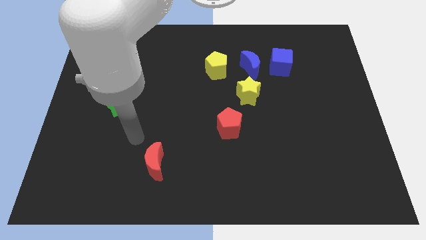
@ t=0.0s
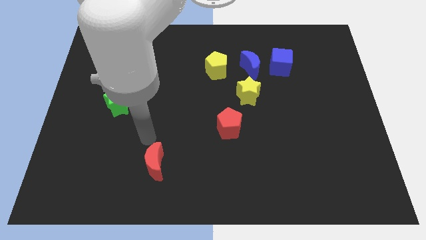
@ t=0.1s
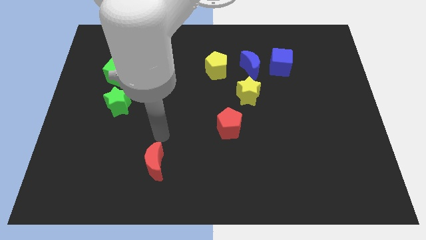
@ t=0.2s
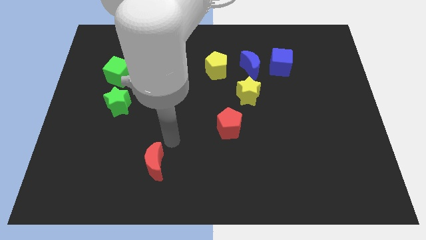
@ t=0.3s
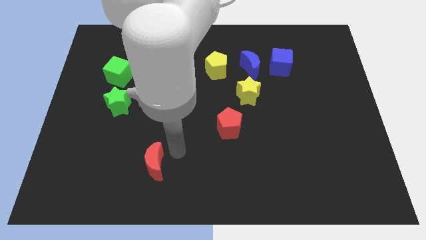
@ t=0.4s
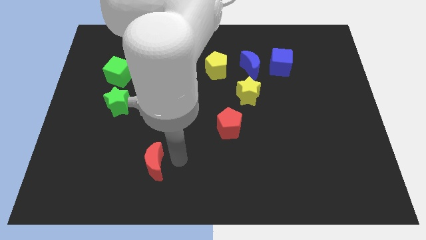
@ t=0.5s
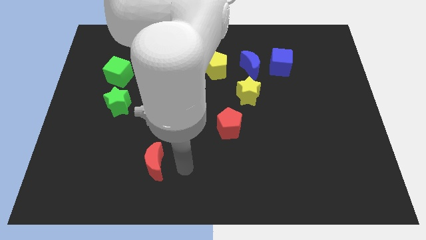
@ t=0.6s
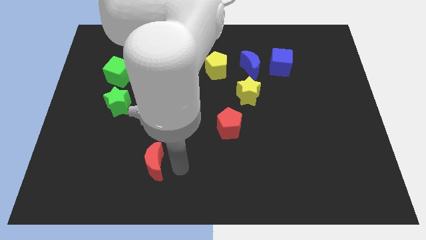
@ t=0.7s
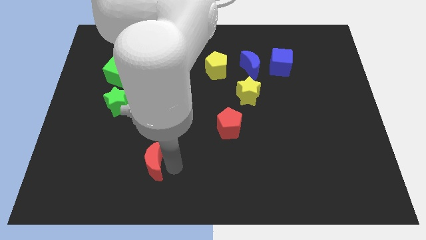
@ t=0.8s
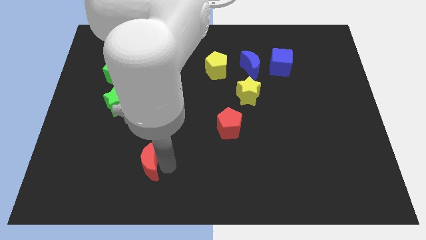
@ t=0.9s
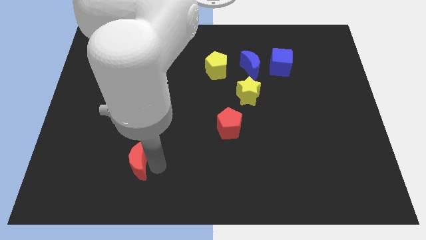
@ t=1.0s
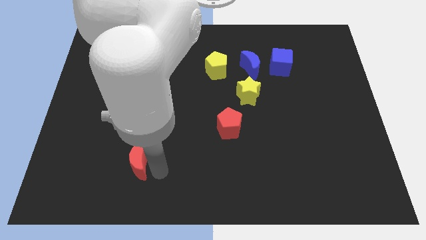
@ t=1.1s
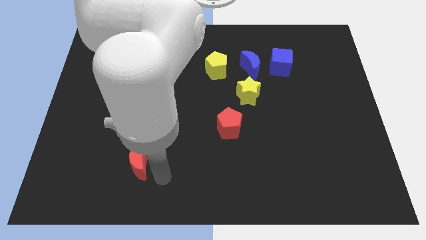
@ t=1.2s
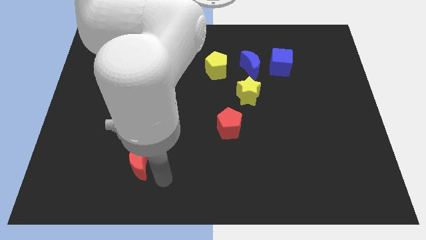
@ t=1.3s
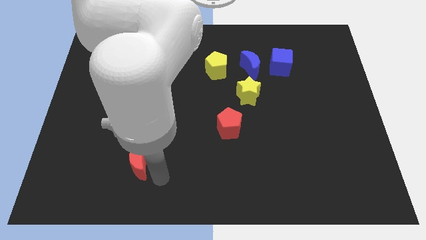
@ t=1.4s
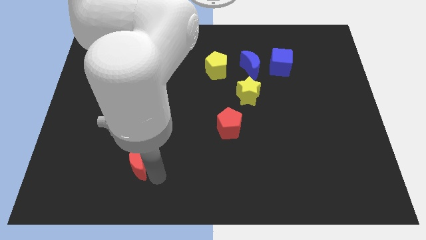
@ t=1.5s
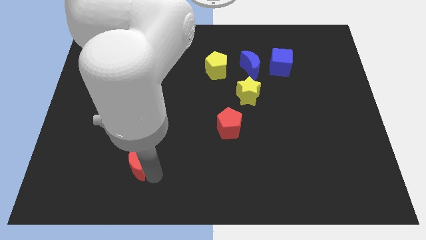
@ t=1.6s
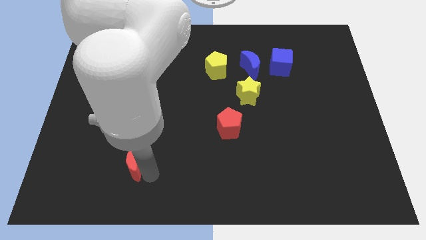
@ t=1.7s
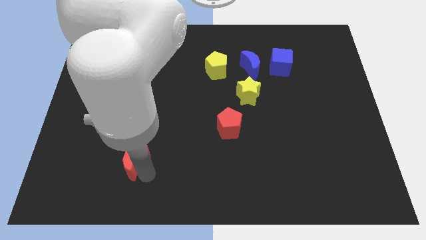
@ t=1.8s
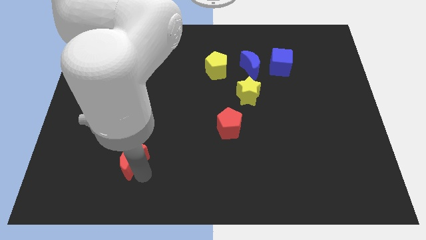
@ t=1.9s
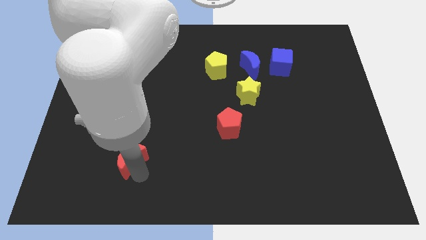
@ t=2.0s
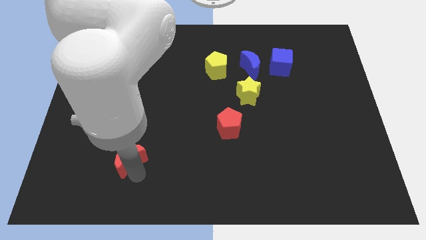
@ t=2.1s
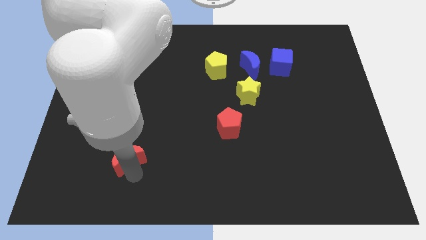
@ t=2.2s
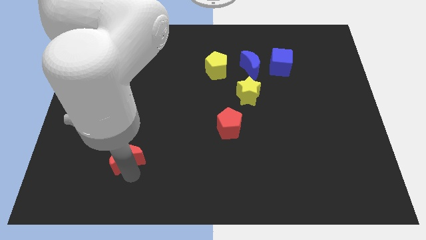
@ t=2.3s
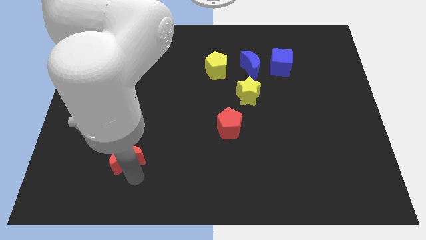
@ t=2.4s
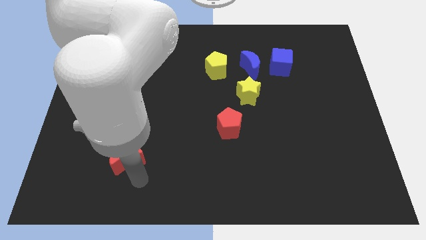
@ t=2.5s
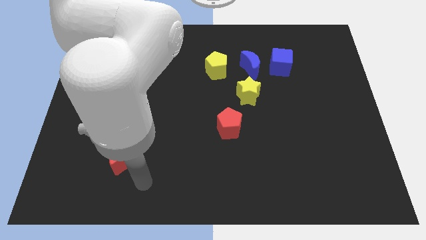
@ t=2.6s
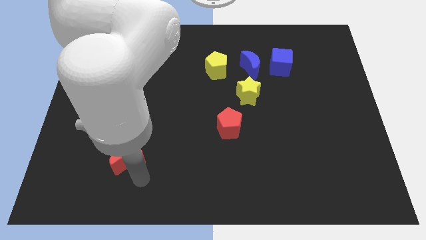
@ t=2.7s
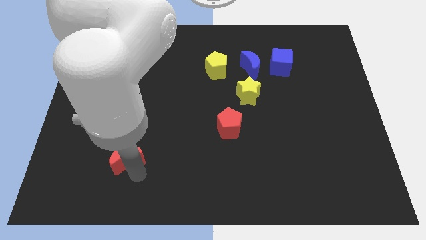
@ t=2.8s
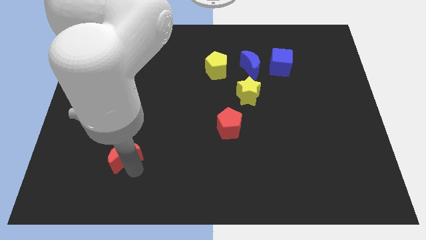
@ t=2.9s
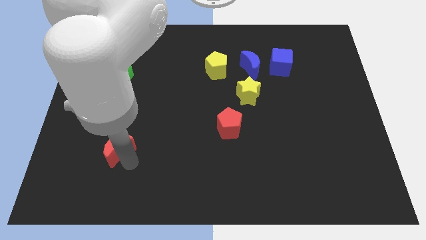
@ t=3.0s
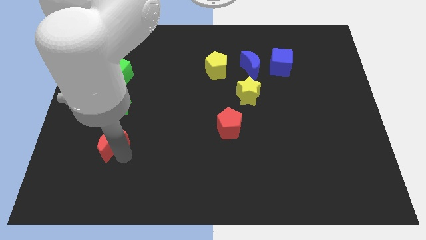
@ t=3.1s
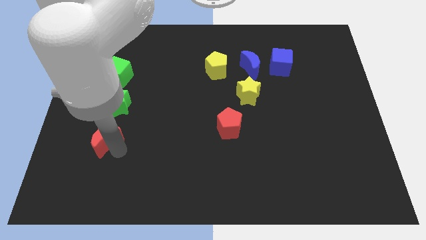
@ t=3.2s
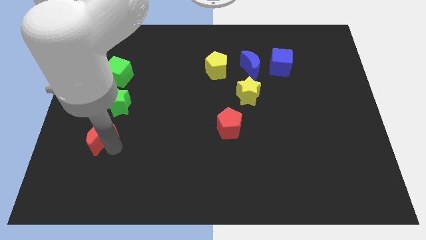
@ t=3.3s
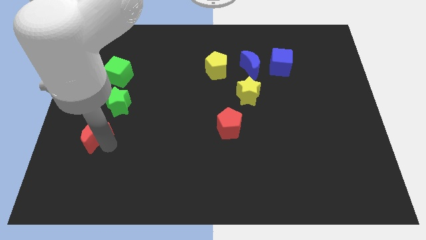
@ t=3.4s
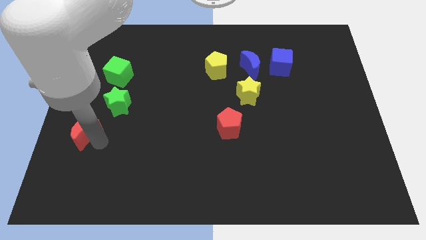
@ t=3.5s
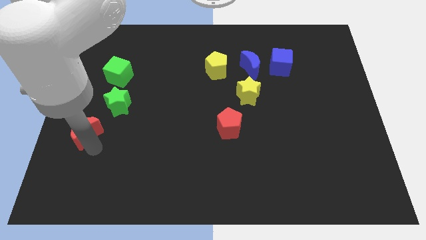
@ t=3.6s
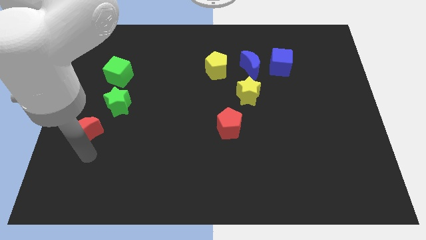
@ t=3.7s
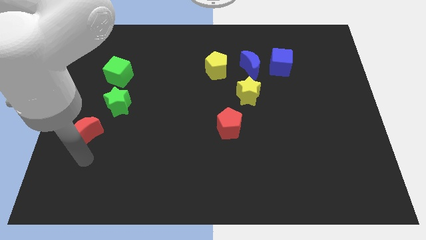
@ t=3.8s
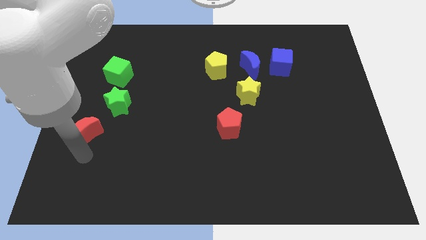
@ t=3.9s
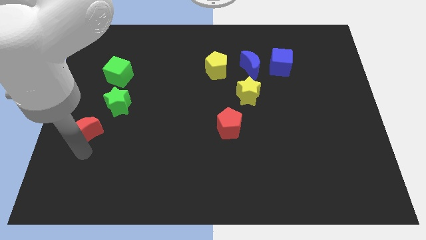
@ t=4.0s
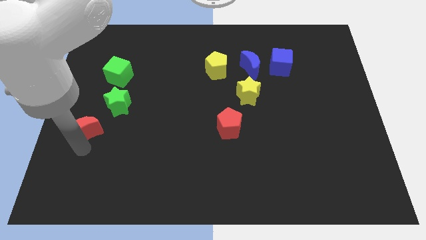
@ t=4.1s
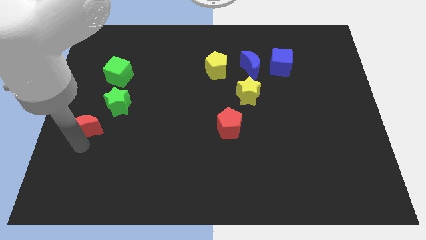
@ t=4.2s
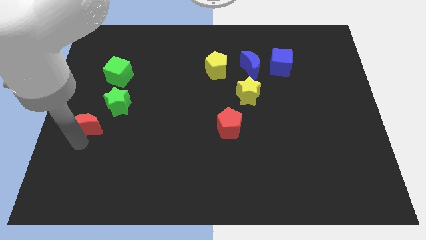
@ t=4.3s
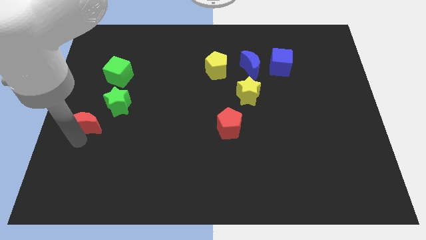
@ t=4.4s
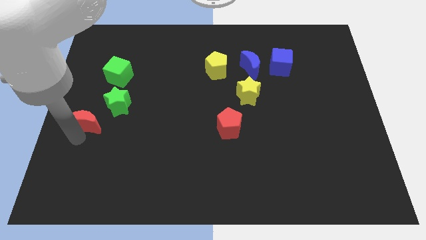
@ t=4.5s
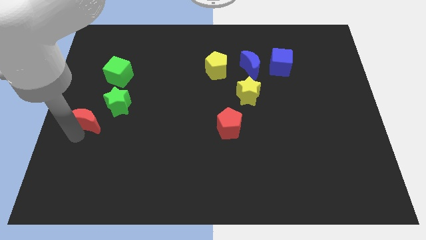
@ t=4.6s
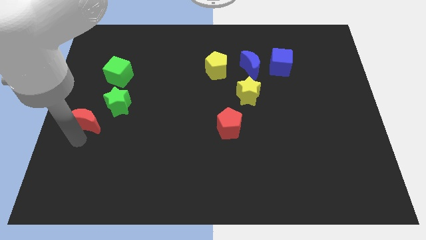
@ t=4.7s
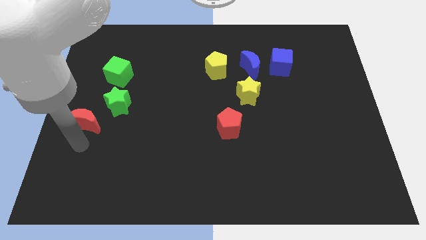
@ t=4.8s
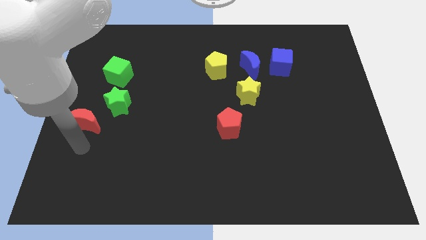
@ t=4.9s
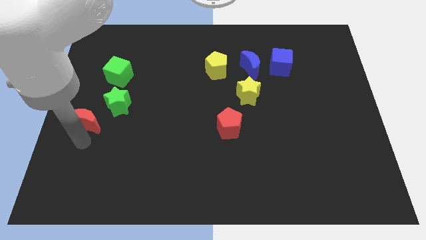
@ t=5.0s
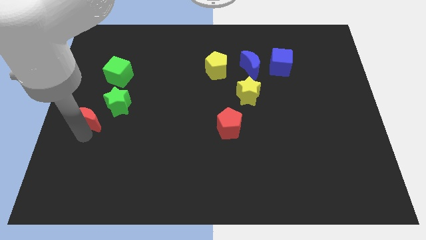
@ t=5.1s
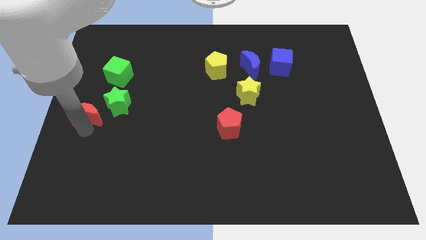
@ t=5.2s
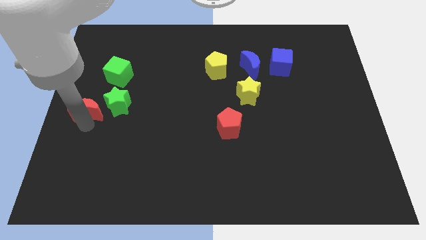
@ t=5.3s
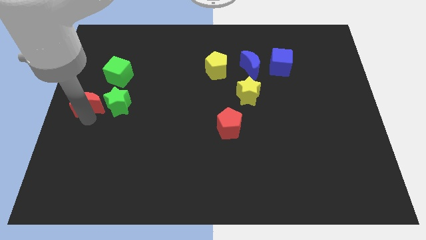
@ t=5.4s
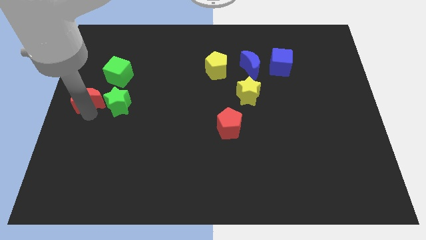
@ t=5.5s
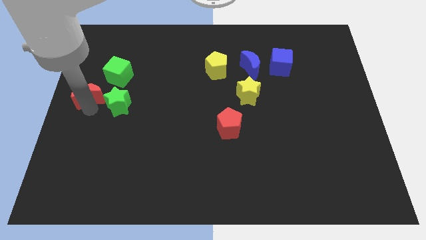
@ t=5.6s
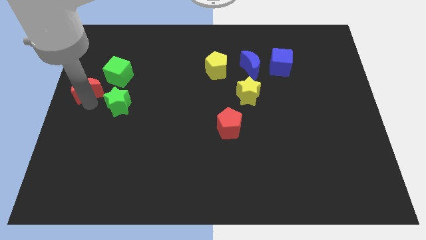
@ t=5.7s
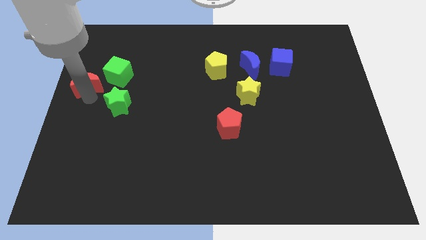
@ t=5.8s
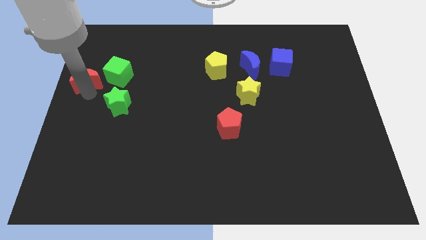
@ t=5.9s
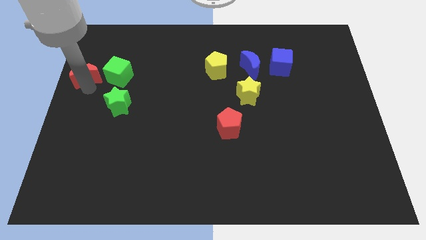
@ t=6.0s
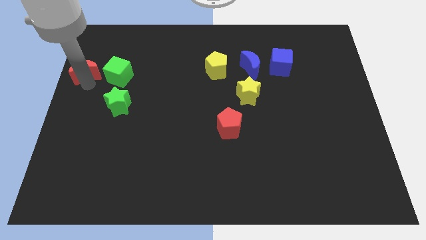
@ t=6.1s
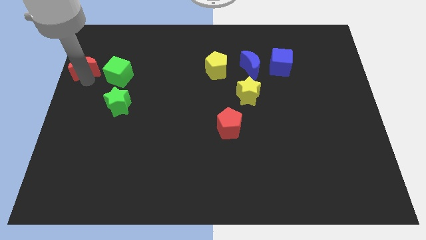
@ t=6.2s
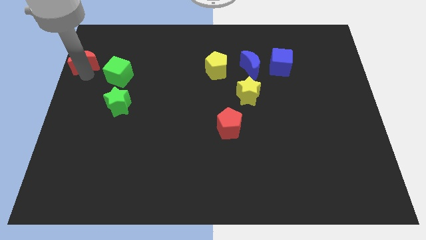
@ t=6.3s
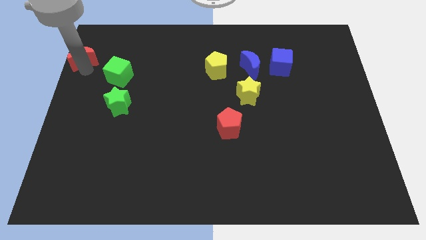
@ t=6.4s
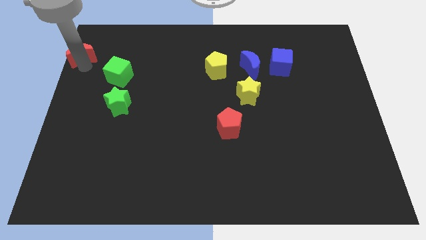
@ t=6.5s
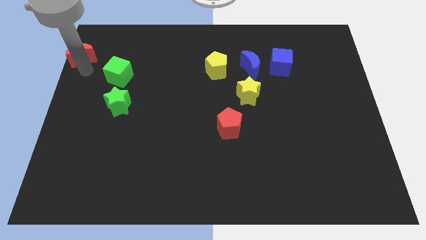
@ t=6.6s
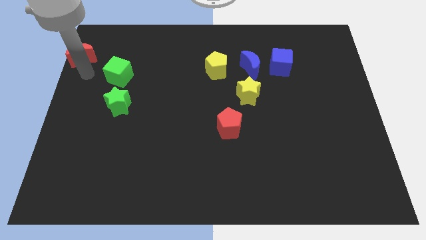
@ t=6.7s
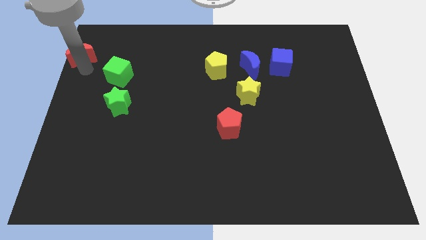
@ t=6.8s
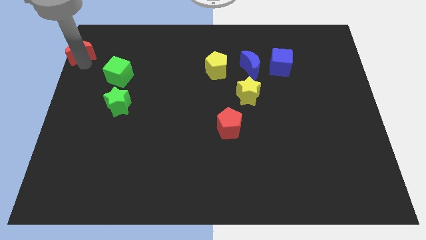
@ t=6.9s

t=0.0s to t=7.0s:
push the red moon to the top left

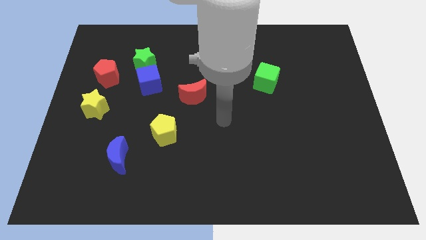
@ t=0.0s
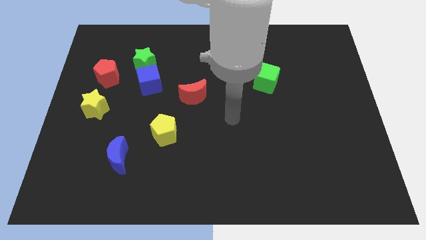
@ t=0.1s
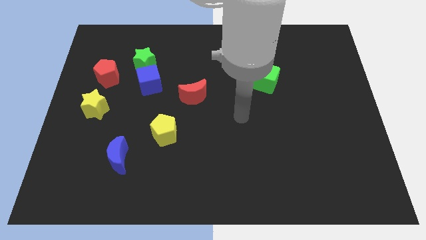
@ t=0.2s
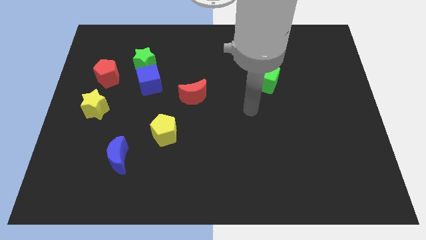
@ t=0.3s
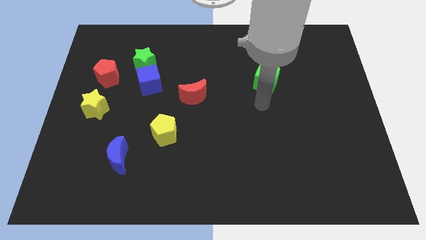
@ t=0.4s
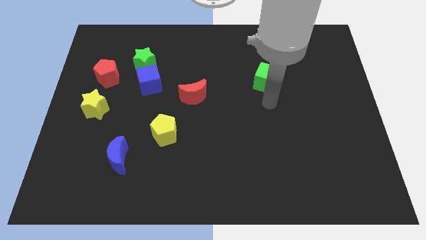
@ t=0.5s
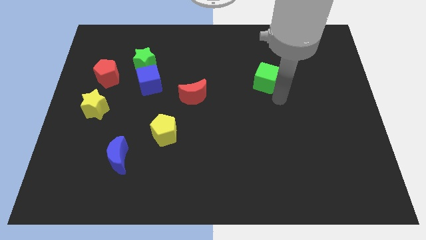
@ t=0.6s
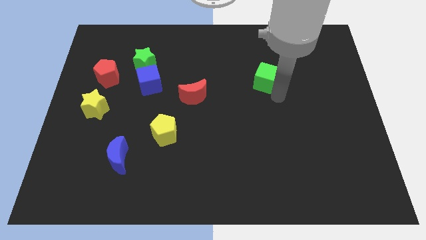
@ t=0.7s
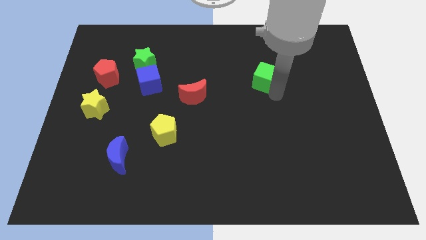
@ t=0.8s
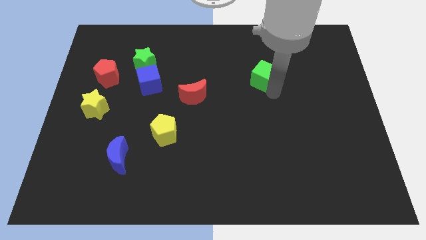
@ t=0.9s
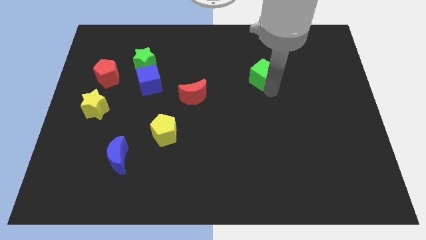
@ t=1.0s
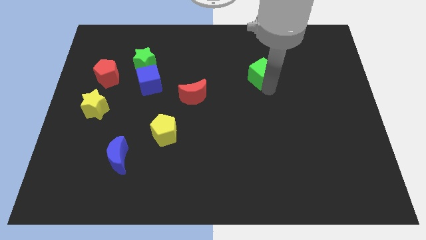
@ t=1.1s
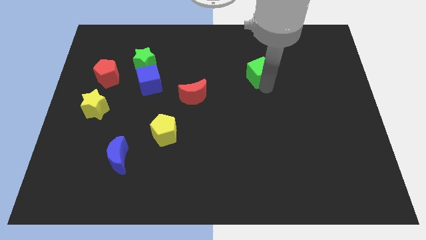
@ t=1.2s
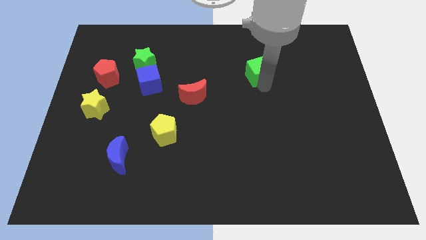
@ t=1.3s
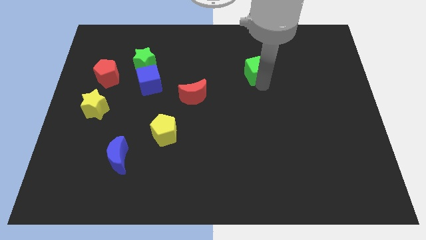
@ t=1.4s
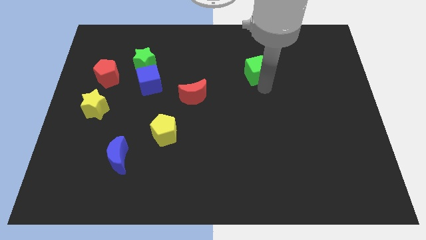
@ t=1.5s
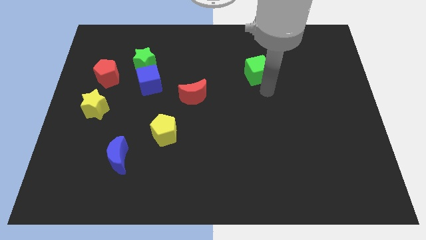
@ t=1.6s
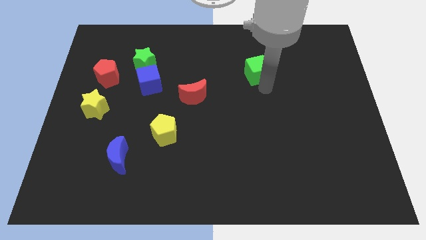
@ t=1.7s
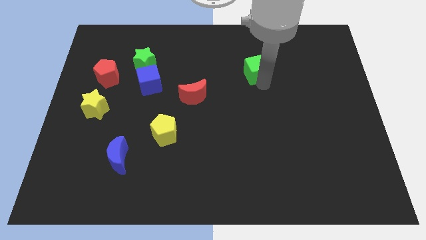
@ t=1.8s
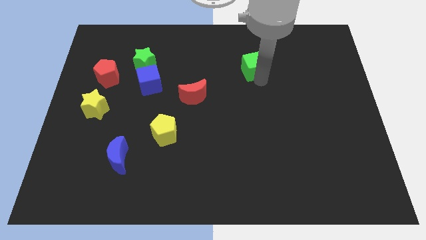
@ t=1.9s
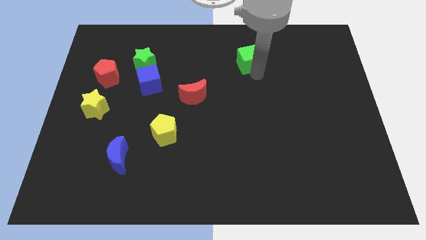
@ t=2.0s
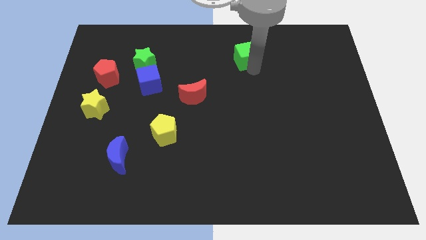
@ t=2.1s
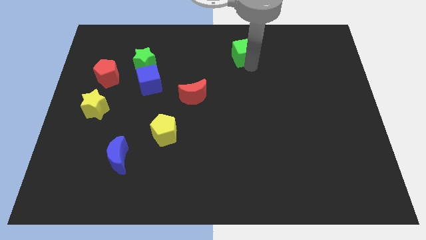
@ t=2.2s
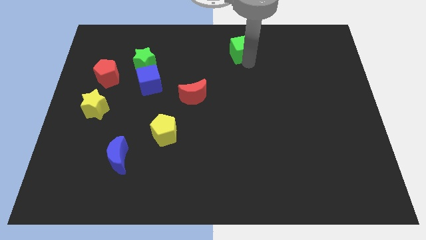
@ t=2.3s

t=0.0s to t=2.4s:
push the green cube to the top
